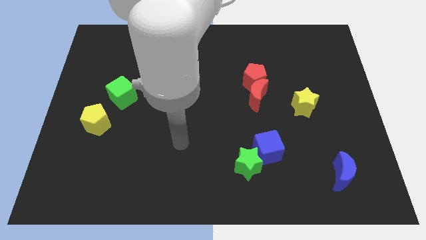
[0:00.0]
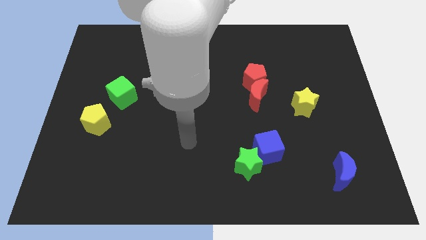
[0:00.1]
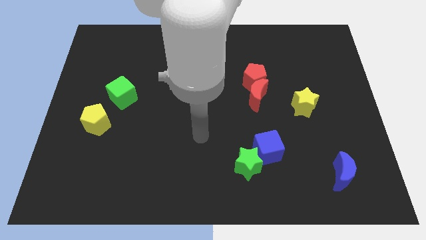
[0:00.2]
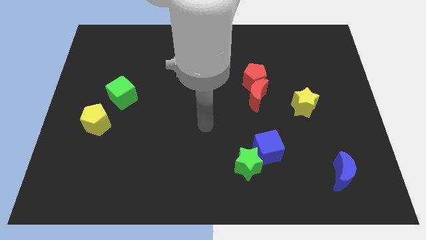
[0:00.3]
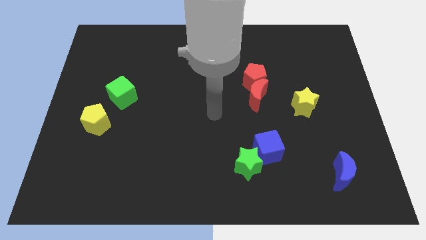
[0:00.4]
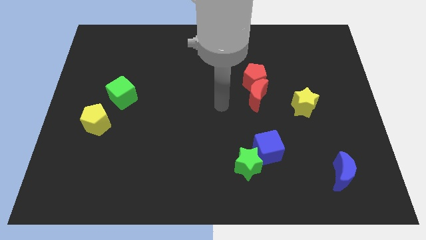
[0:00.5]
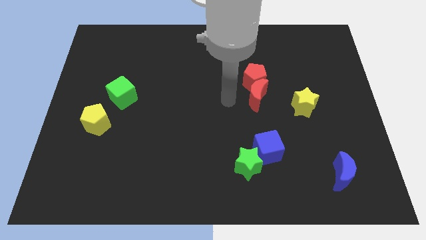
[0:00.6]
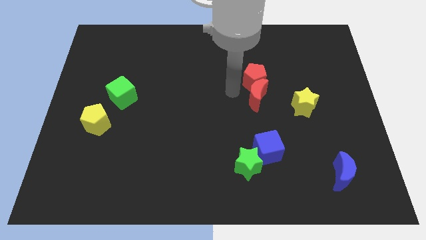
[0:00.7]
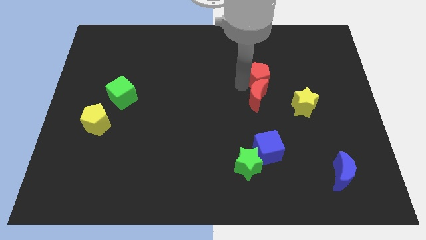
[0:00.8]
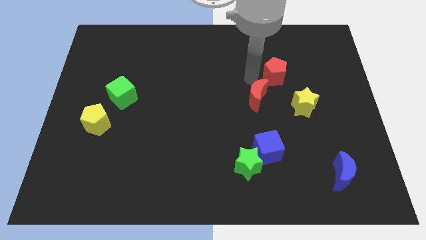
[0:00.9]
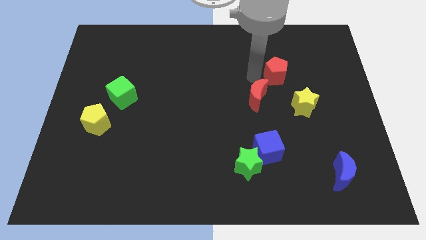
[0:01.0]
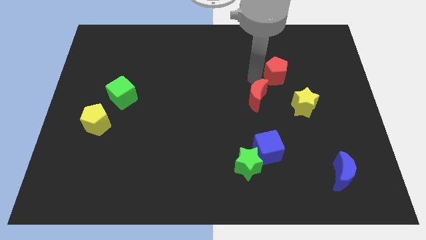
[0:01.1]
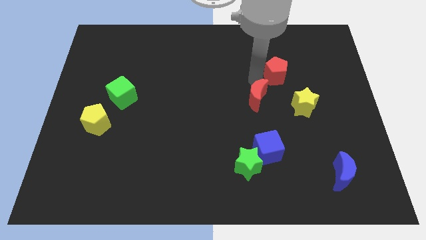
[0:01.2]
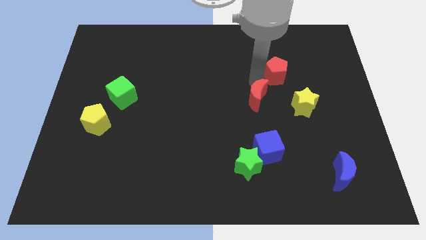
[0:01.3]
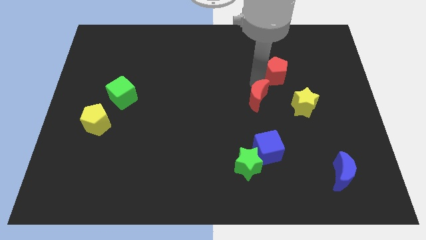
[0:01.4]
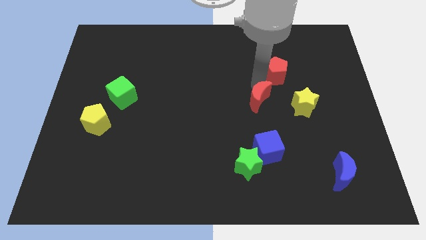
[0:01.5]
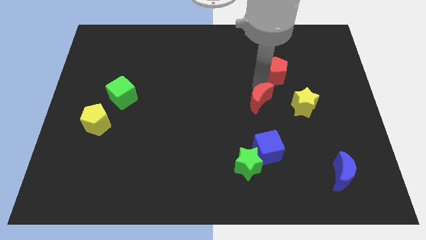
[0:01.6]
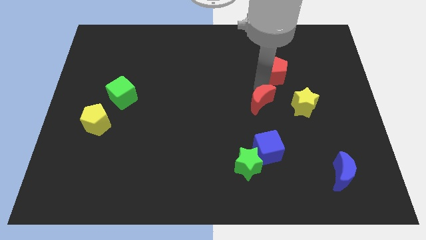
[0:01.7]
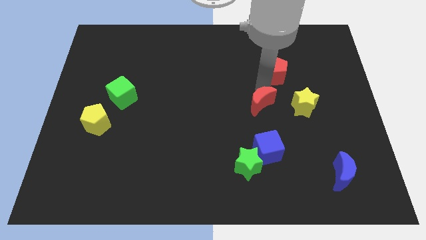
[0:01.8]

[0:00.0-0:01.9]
pull the red moon apart from the red pentagon

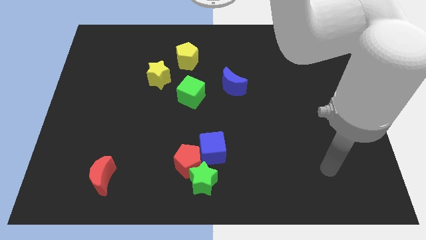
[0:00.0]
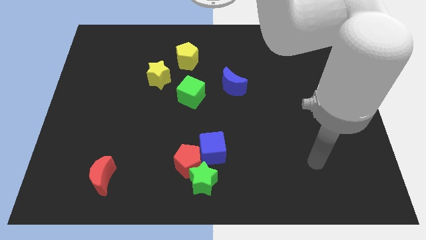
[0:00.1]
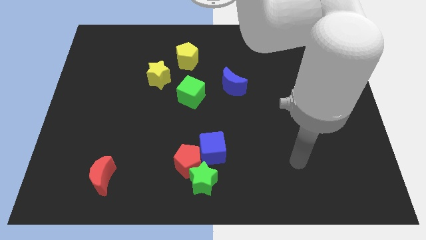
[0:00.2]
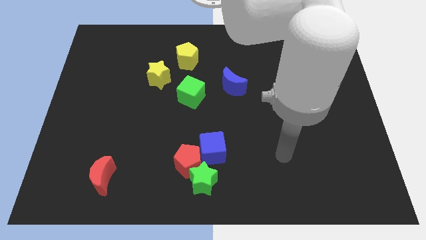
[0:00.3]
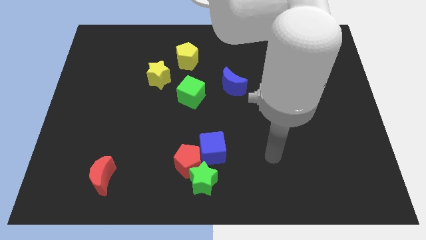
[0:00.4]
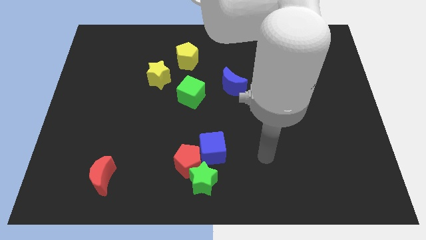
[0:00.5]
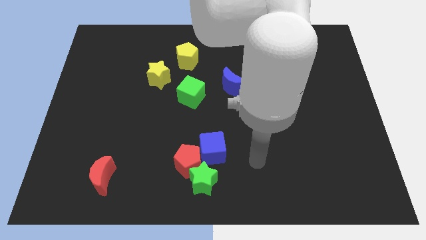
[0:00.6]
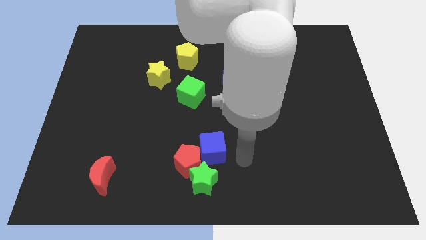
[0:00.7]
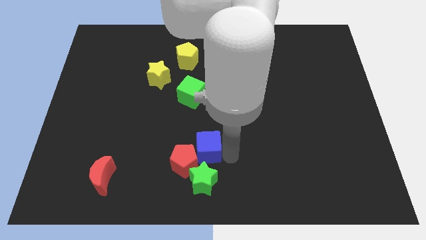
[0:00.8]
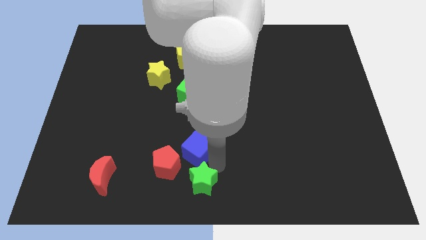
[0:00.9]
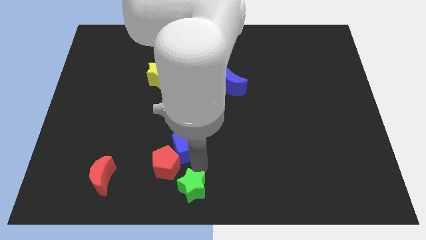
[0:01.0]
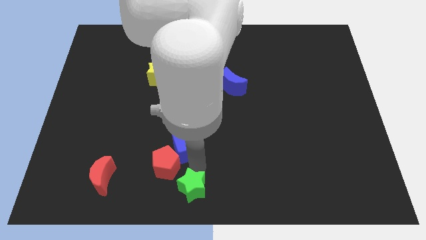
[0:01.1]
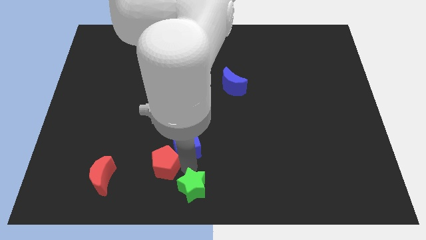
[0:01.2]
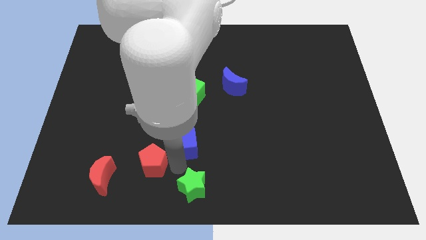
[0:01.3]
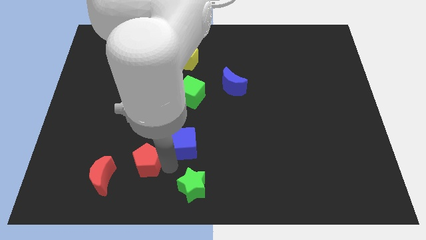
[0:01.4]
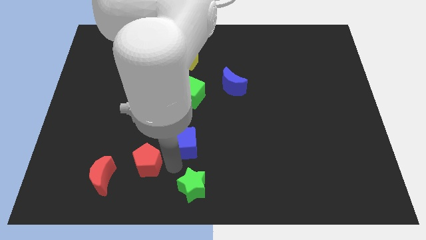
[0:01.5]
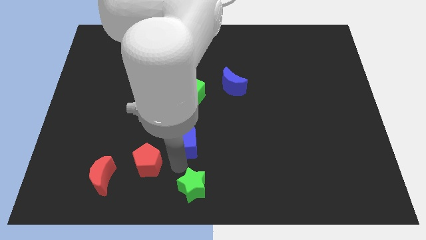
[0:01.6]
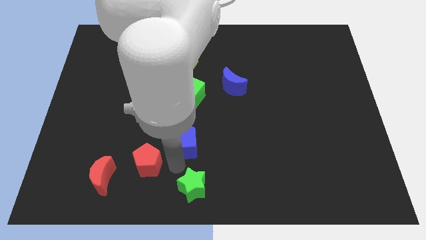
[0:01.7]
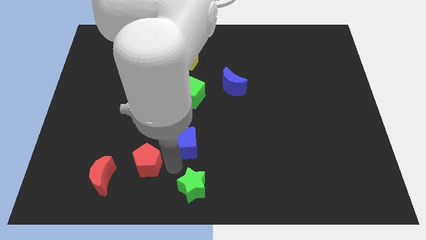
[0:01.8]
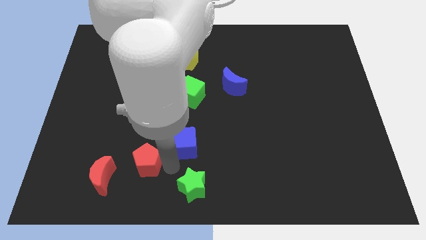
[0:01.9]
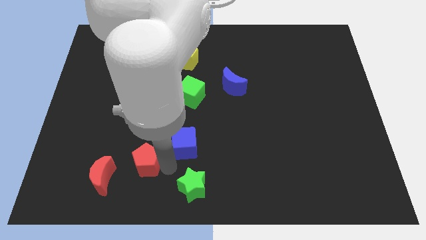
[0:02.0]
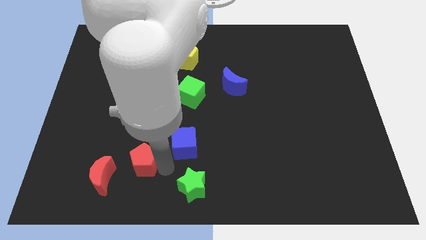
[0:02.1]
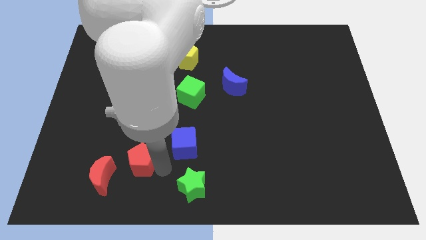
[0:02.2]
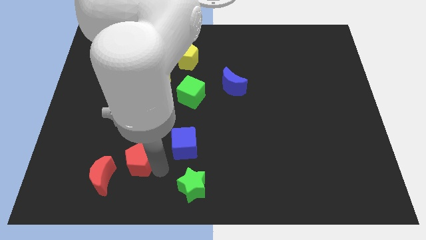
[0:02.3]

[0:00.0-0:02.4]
separate the red pentagon from the green star and blue cube

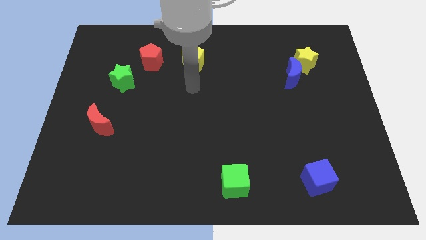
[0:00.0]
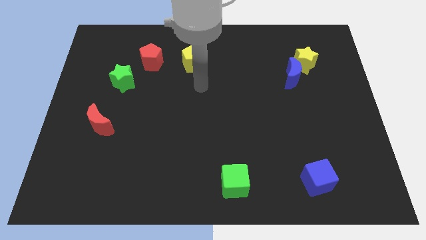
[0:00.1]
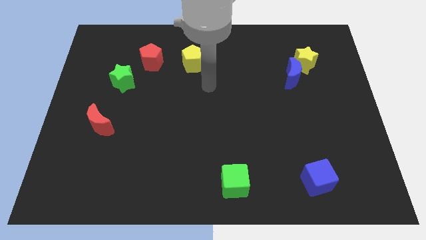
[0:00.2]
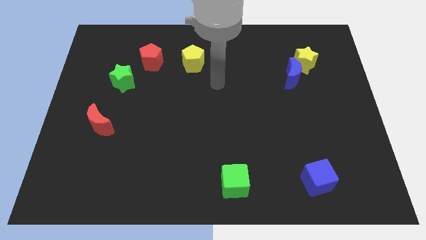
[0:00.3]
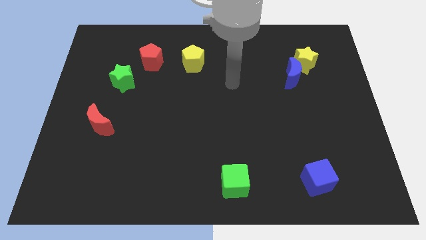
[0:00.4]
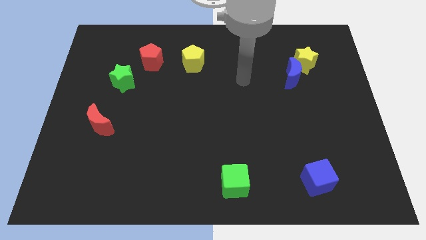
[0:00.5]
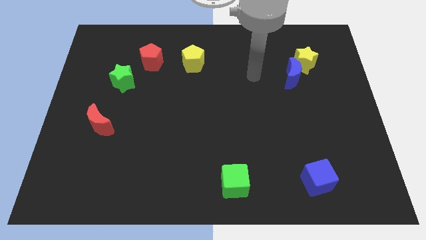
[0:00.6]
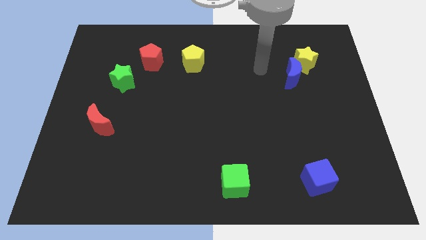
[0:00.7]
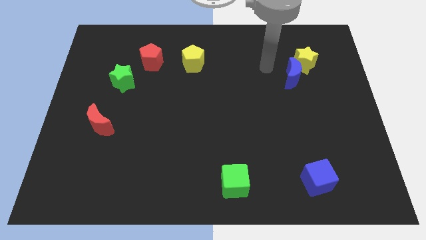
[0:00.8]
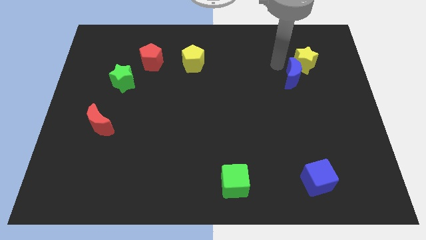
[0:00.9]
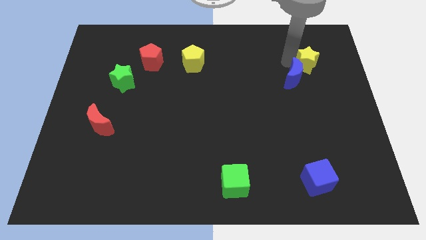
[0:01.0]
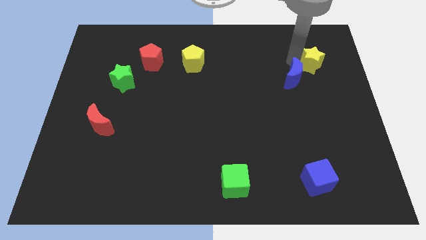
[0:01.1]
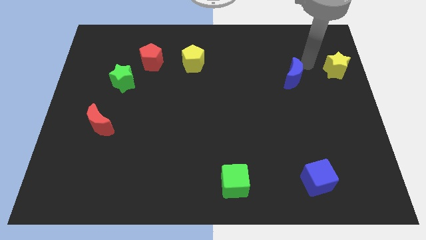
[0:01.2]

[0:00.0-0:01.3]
separate the blue moon from the yellow star

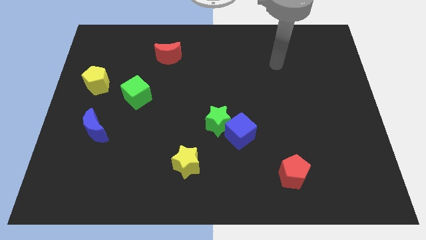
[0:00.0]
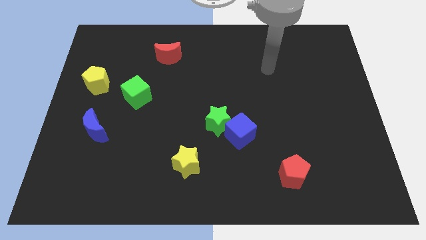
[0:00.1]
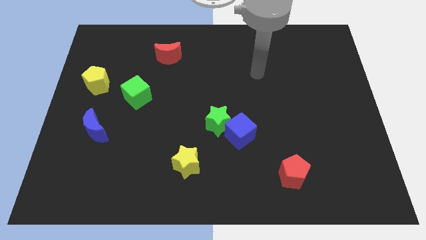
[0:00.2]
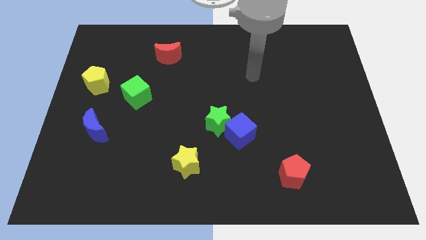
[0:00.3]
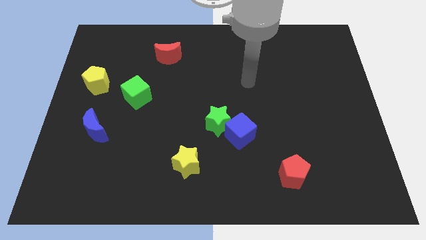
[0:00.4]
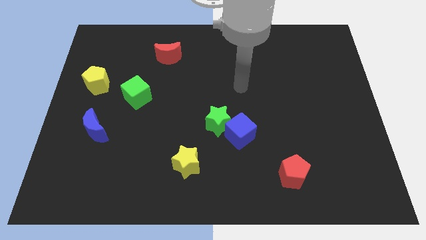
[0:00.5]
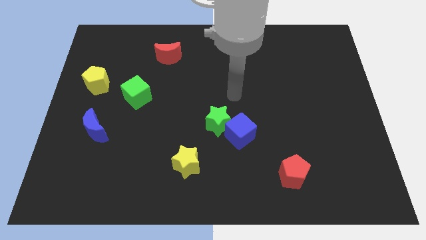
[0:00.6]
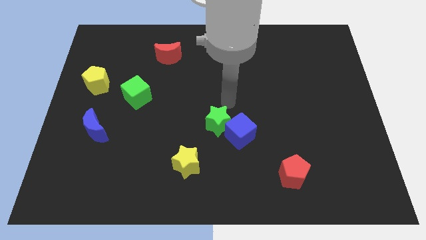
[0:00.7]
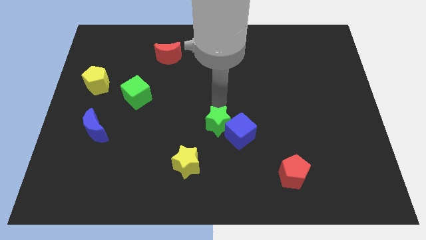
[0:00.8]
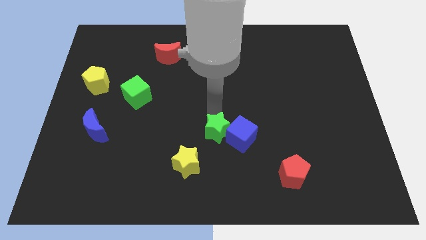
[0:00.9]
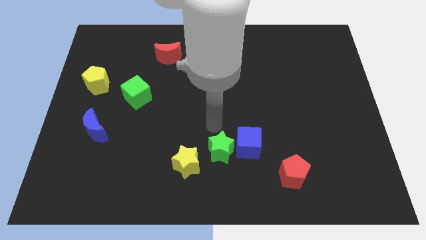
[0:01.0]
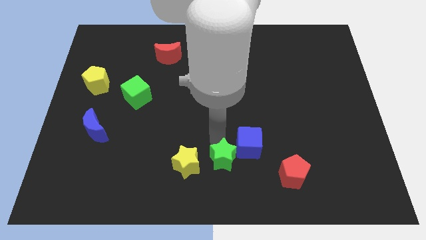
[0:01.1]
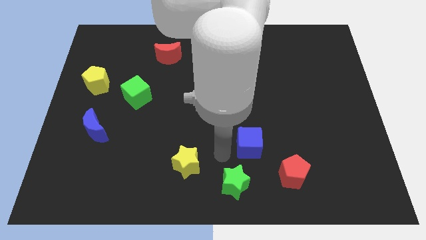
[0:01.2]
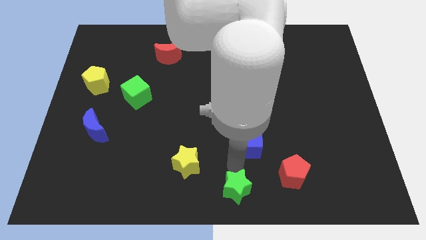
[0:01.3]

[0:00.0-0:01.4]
move the blue cube away from the green star

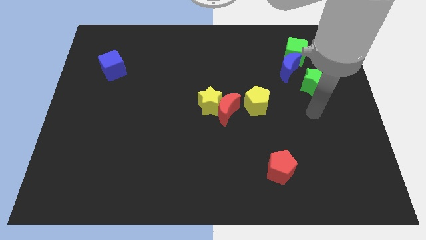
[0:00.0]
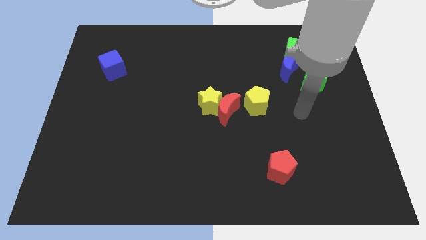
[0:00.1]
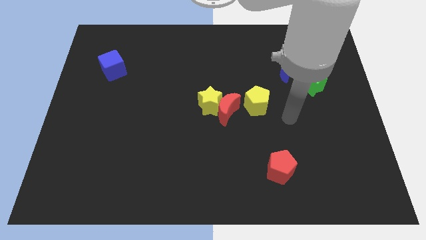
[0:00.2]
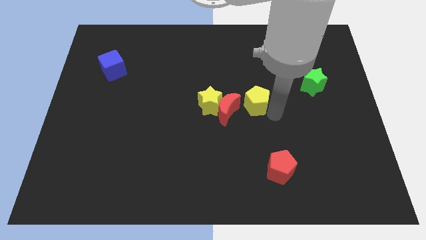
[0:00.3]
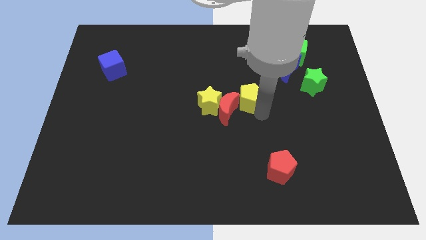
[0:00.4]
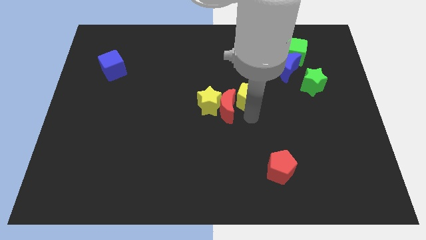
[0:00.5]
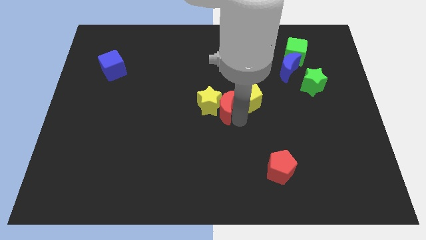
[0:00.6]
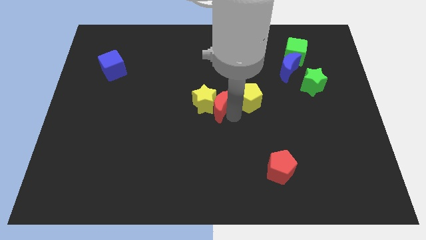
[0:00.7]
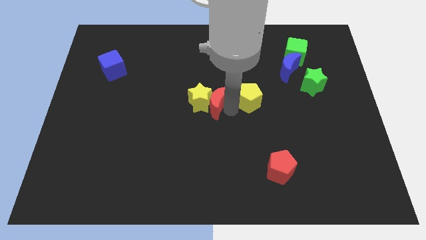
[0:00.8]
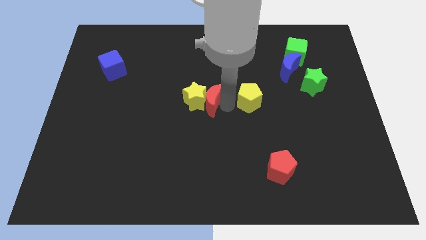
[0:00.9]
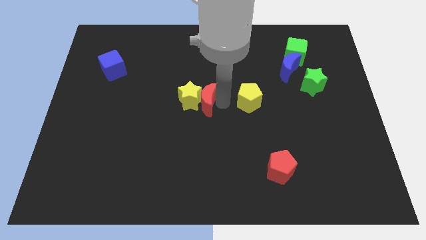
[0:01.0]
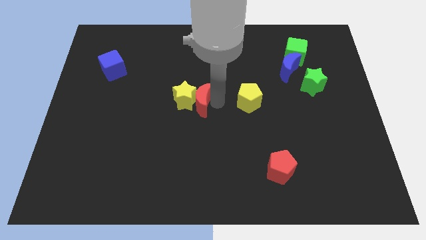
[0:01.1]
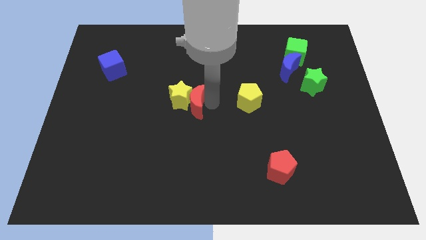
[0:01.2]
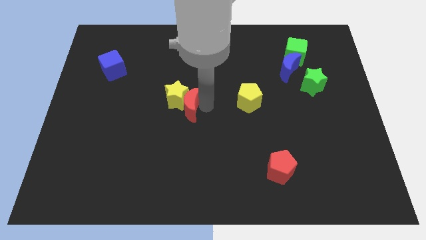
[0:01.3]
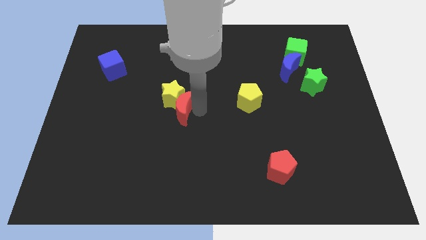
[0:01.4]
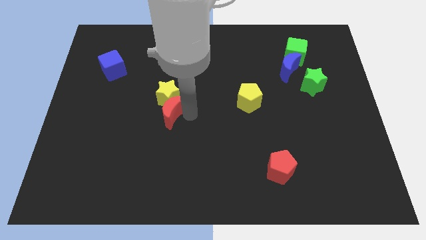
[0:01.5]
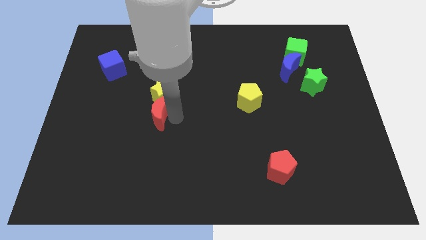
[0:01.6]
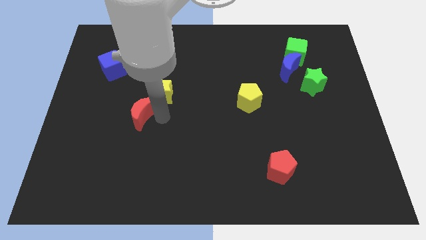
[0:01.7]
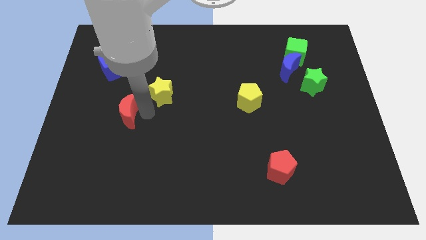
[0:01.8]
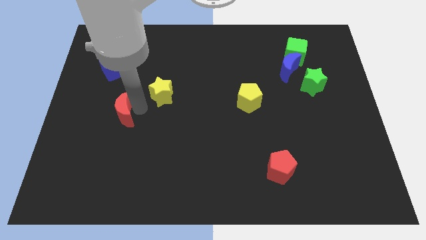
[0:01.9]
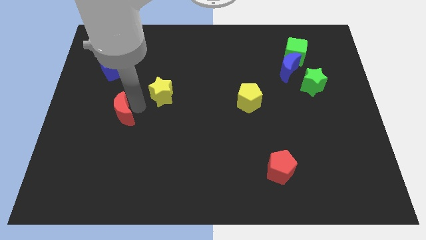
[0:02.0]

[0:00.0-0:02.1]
separate the yellow star from the red moon

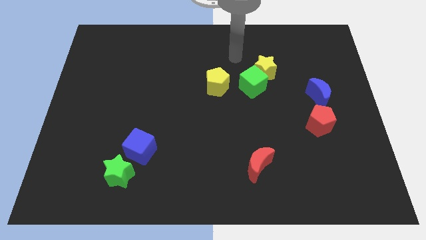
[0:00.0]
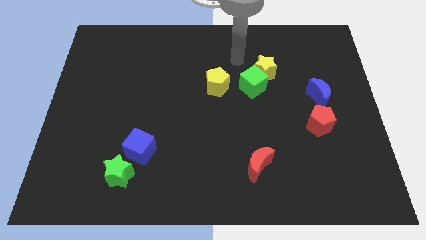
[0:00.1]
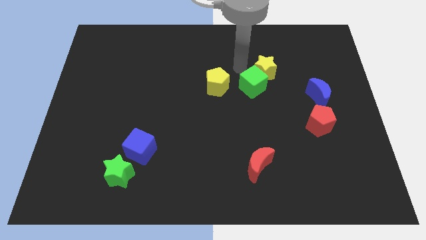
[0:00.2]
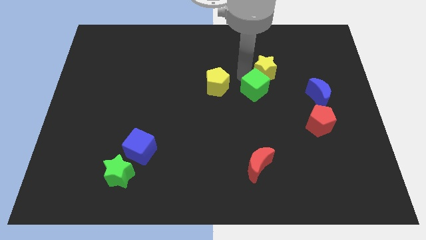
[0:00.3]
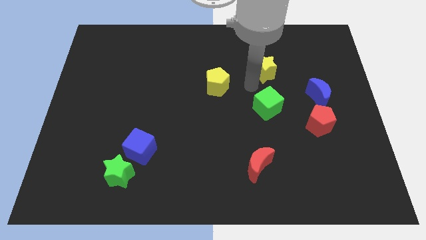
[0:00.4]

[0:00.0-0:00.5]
separate the yellow star from the green cube
